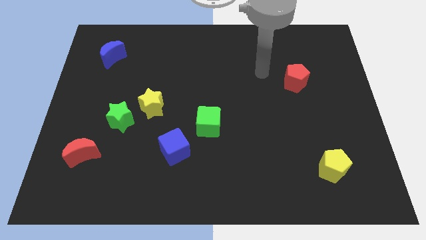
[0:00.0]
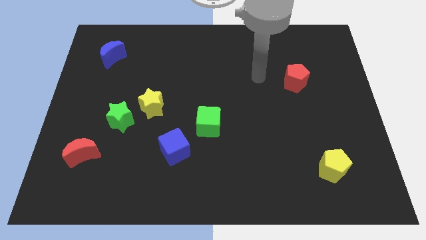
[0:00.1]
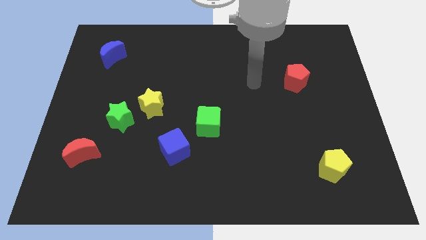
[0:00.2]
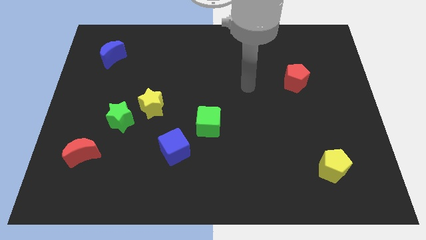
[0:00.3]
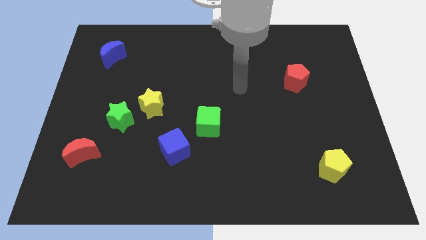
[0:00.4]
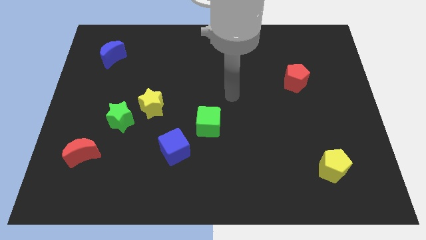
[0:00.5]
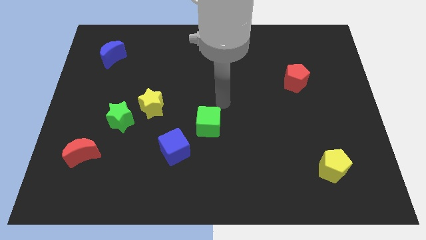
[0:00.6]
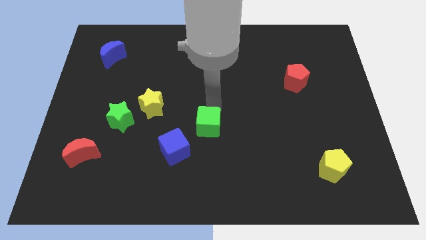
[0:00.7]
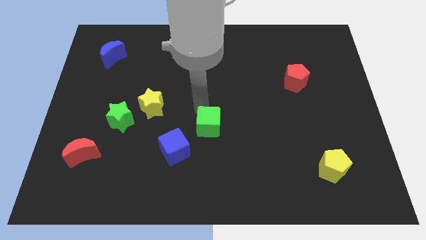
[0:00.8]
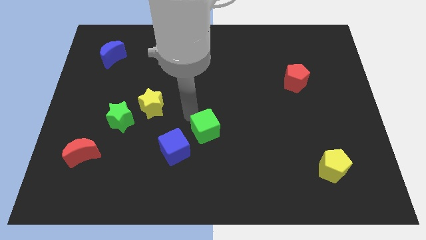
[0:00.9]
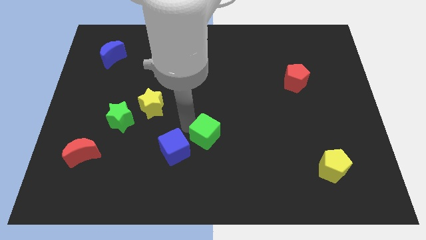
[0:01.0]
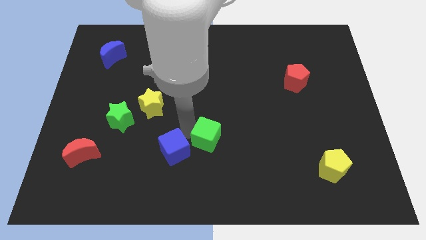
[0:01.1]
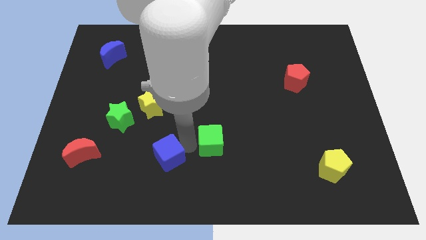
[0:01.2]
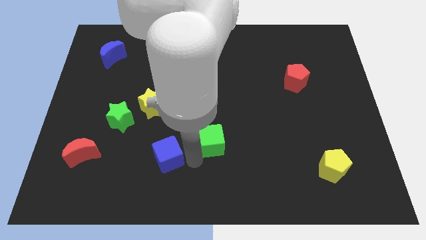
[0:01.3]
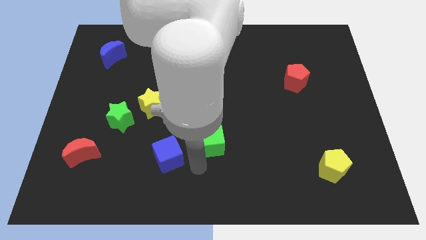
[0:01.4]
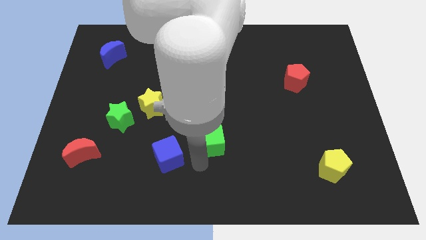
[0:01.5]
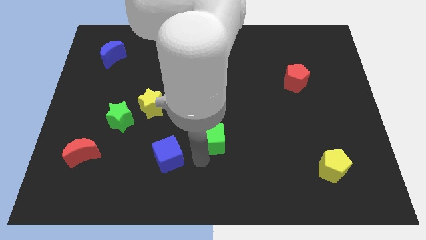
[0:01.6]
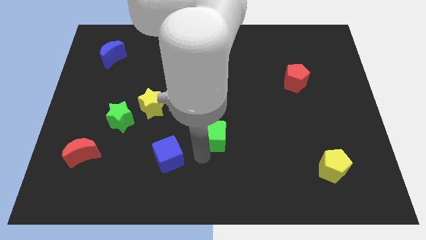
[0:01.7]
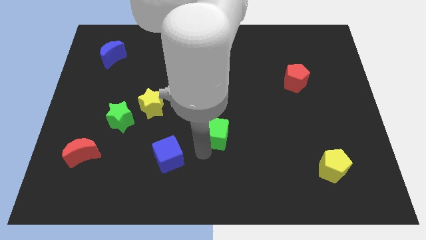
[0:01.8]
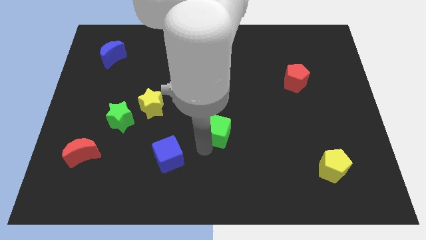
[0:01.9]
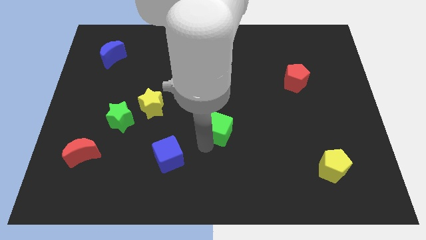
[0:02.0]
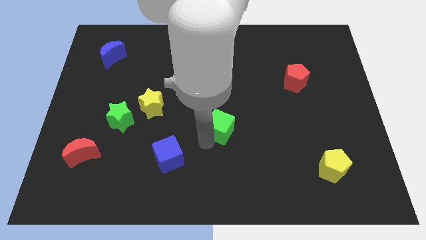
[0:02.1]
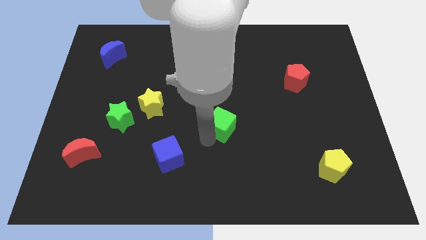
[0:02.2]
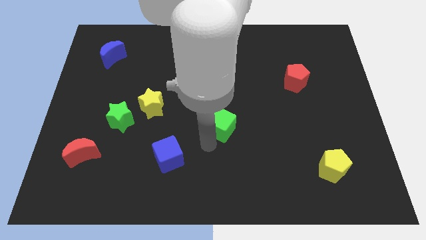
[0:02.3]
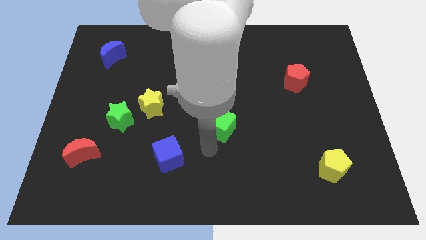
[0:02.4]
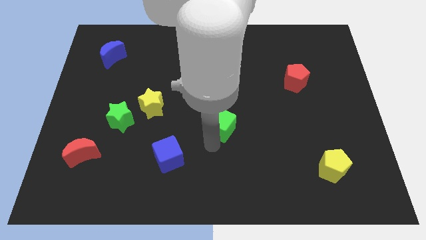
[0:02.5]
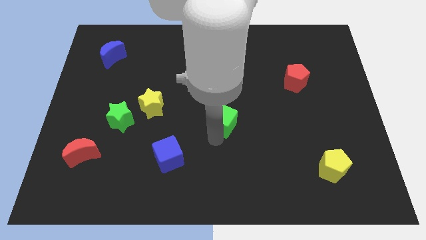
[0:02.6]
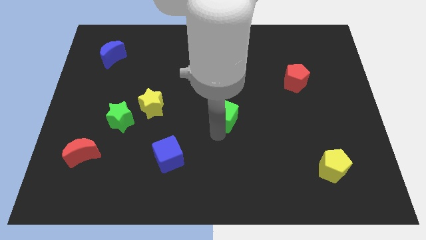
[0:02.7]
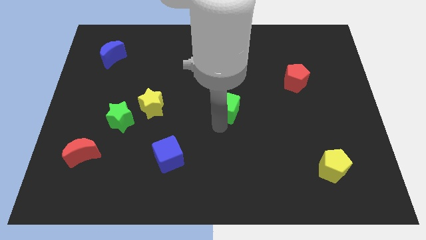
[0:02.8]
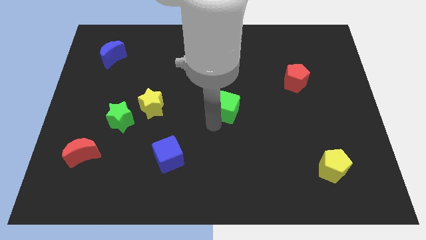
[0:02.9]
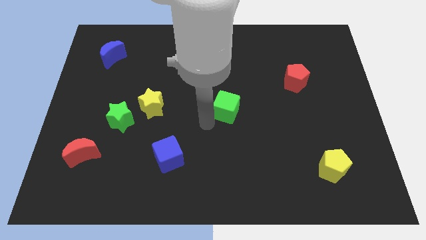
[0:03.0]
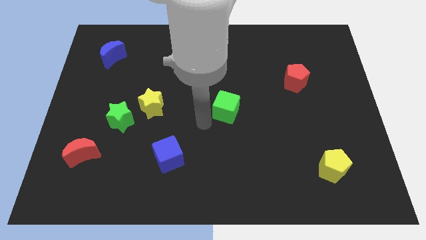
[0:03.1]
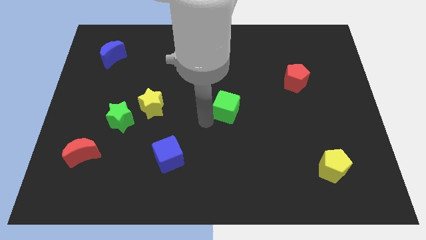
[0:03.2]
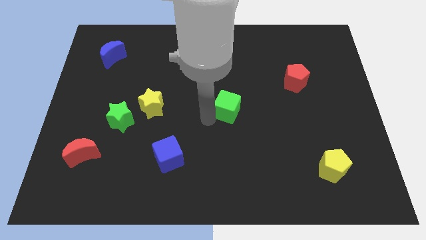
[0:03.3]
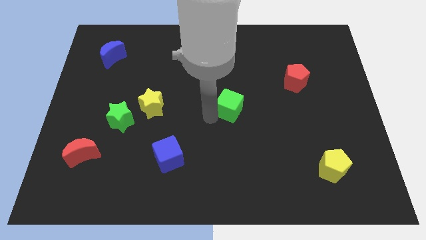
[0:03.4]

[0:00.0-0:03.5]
slide the green cube diagonally up and right a little

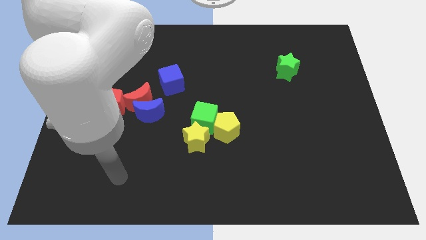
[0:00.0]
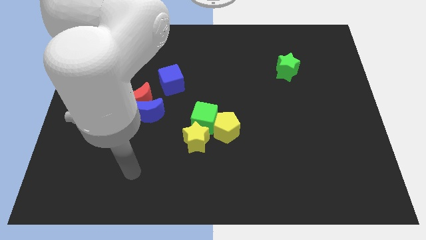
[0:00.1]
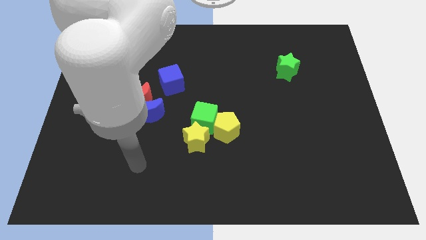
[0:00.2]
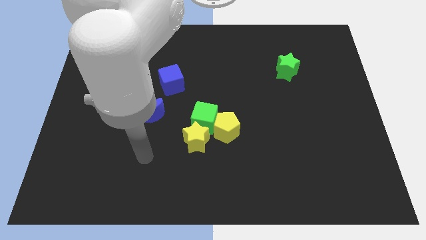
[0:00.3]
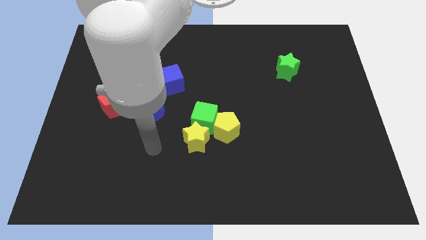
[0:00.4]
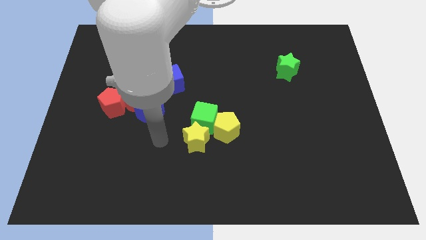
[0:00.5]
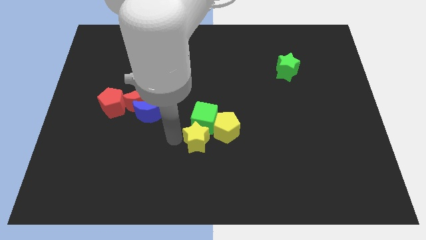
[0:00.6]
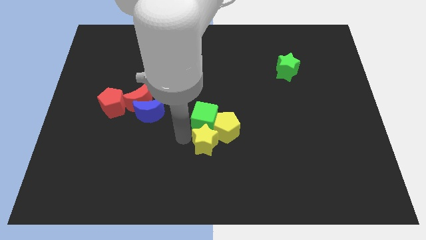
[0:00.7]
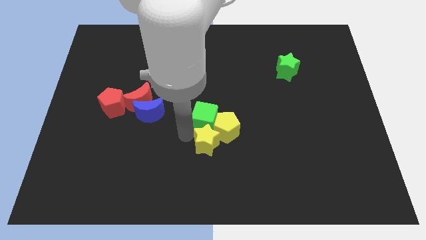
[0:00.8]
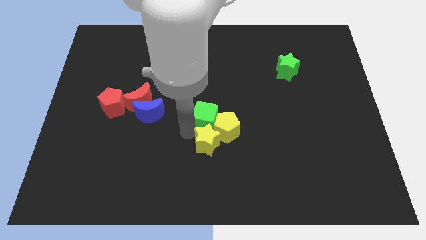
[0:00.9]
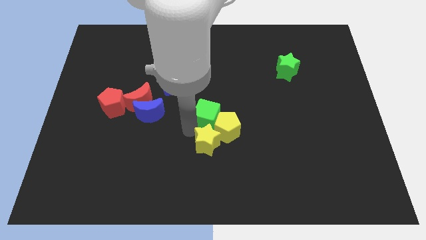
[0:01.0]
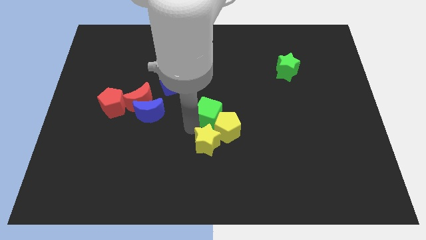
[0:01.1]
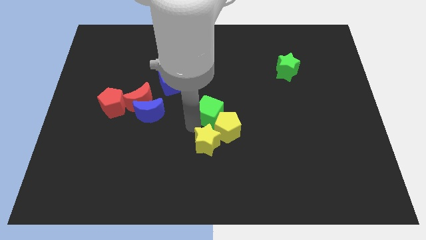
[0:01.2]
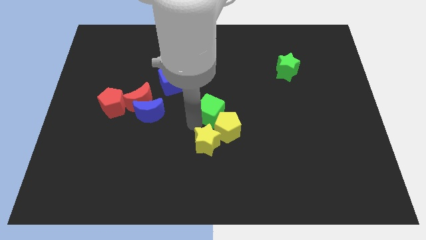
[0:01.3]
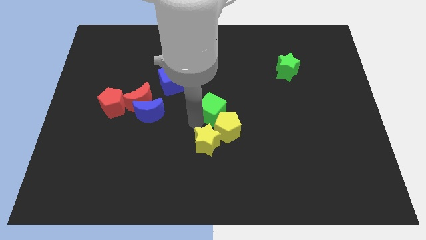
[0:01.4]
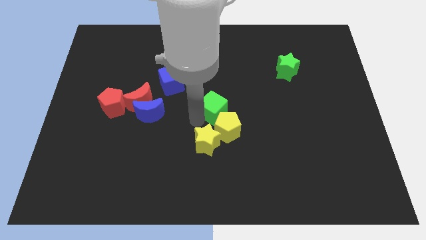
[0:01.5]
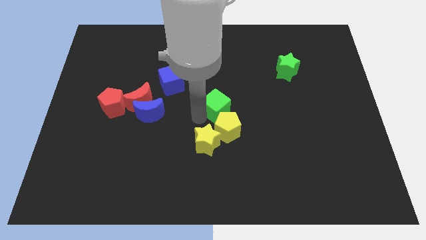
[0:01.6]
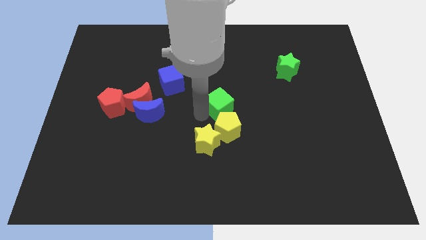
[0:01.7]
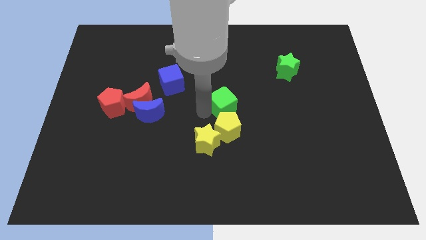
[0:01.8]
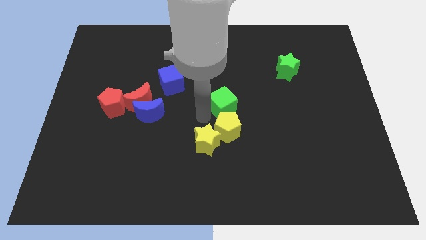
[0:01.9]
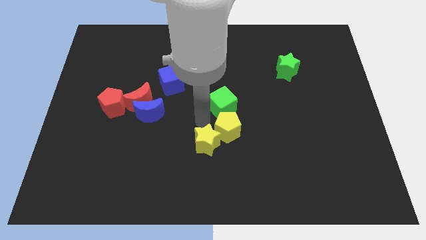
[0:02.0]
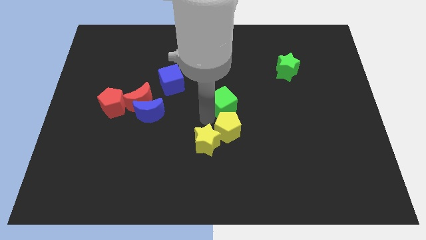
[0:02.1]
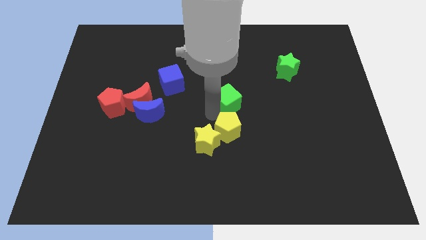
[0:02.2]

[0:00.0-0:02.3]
slightly move the green cube up and right diagonally

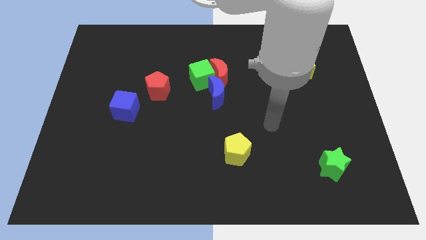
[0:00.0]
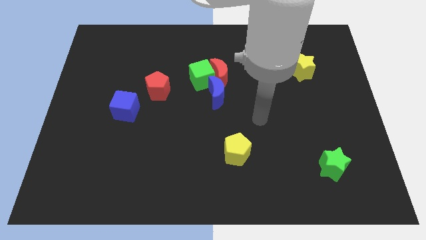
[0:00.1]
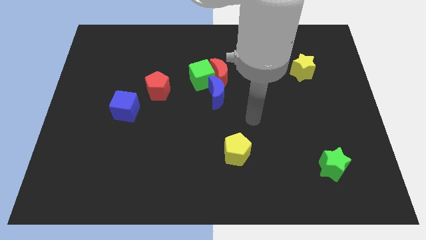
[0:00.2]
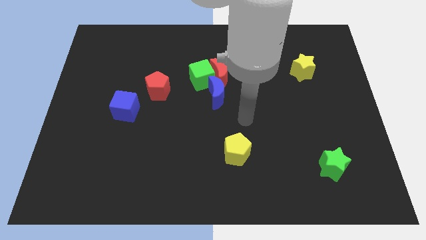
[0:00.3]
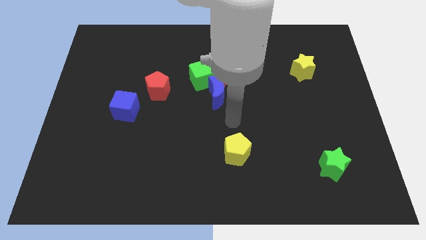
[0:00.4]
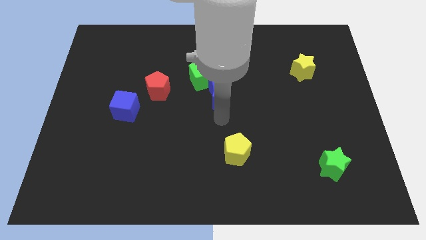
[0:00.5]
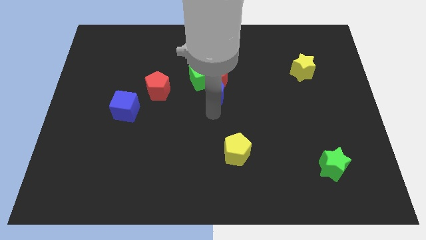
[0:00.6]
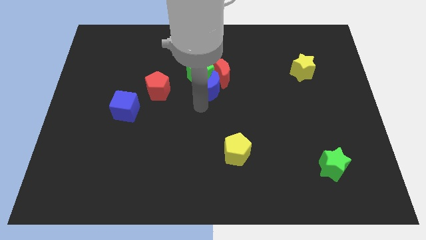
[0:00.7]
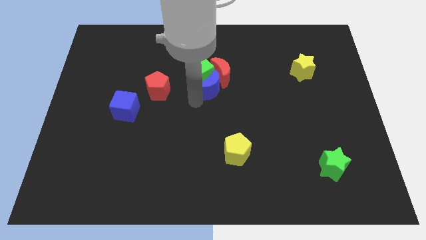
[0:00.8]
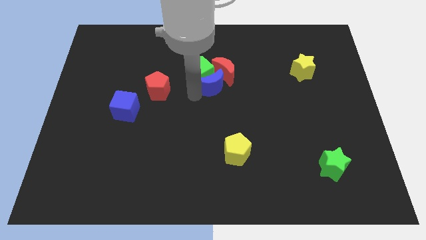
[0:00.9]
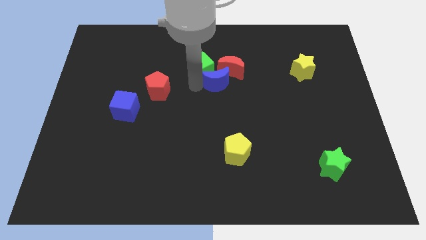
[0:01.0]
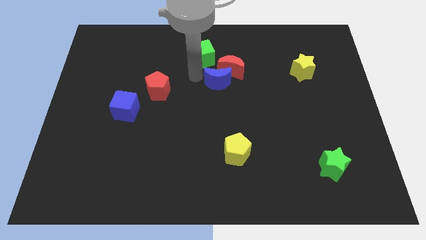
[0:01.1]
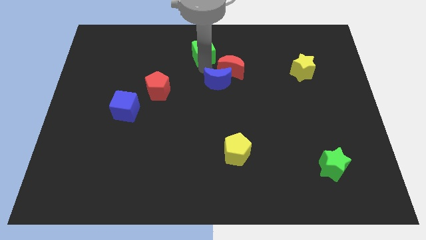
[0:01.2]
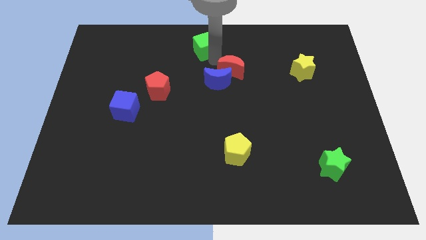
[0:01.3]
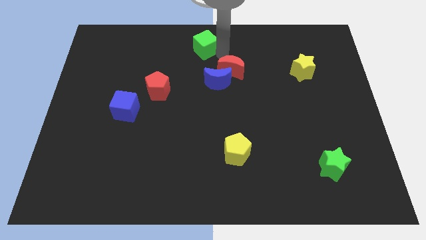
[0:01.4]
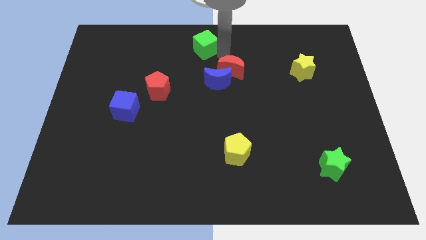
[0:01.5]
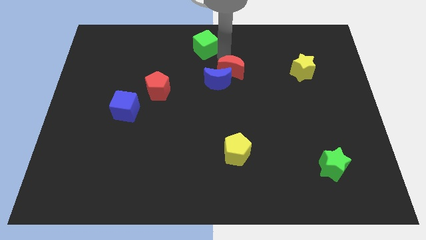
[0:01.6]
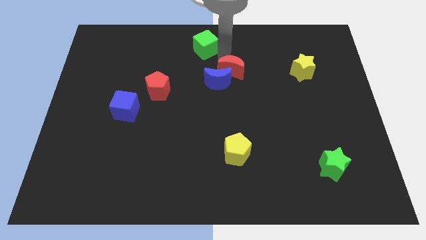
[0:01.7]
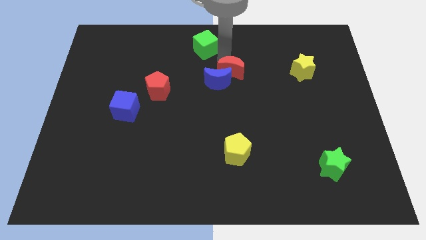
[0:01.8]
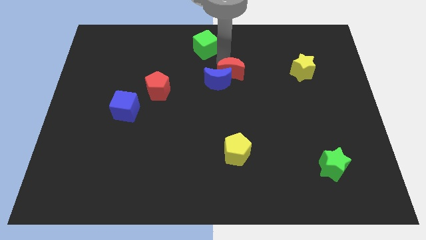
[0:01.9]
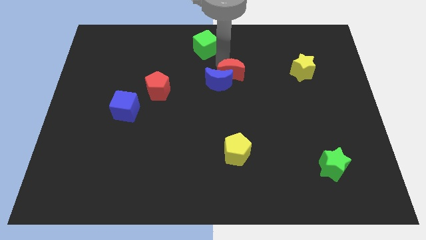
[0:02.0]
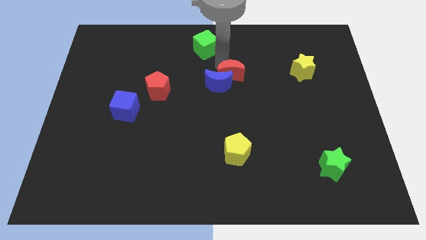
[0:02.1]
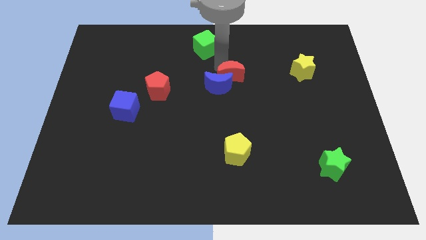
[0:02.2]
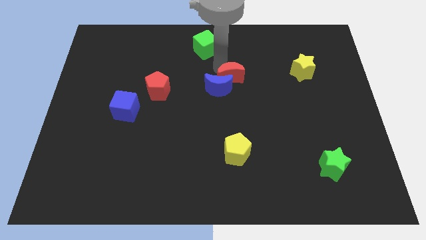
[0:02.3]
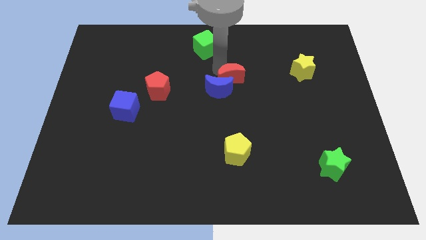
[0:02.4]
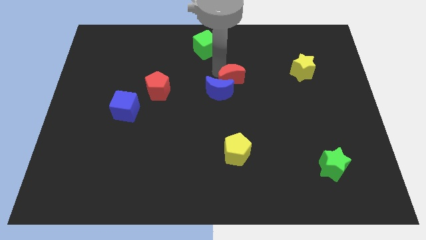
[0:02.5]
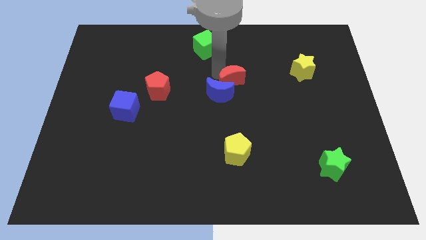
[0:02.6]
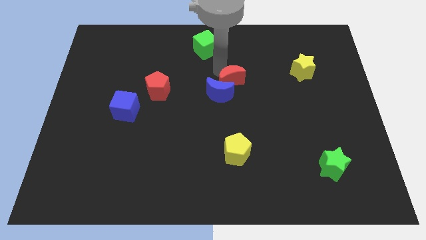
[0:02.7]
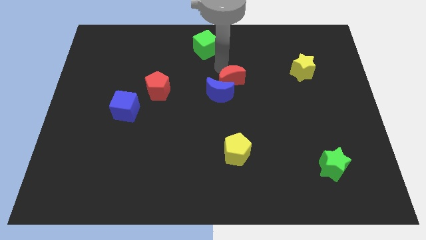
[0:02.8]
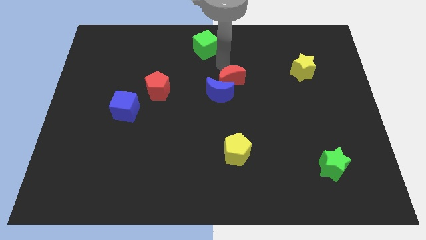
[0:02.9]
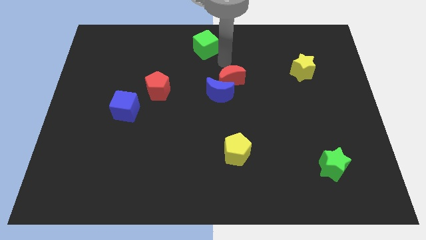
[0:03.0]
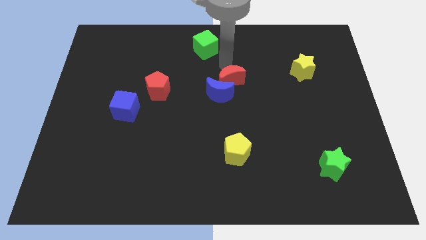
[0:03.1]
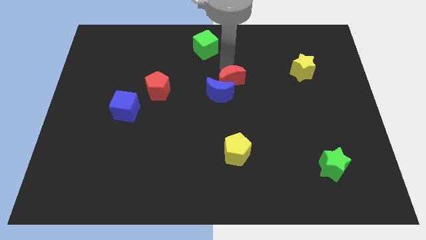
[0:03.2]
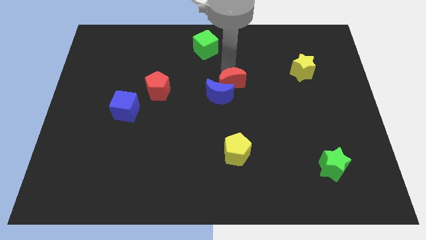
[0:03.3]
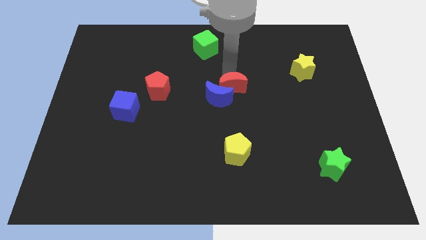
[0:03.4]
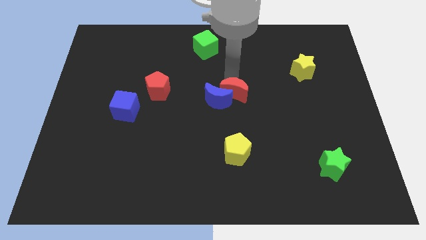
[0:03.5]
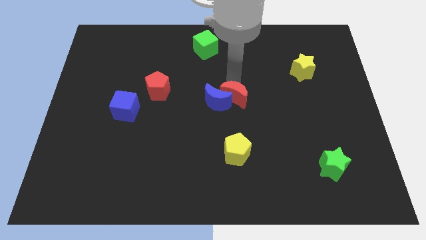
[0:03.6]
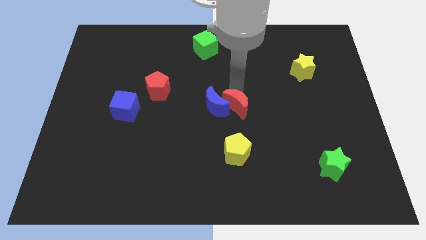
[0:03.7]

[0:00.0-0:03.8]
move the red moon downwards a little bit
